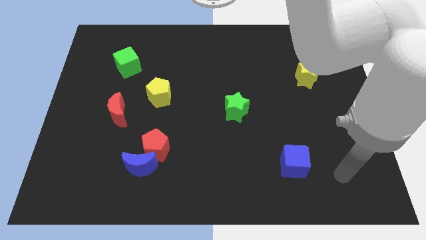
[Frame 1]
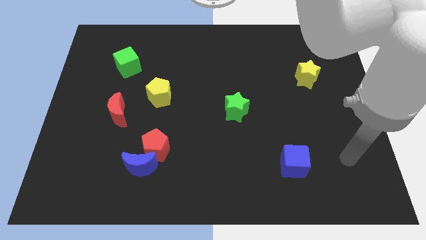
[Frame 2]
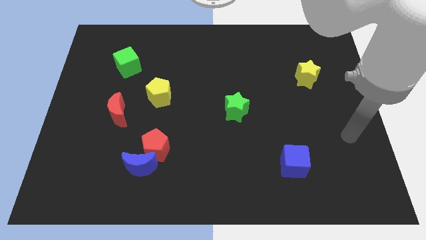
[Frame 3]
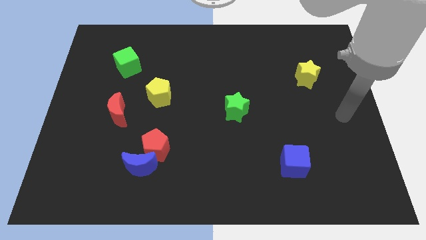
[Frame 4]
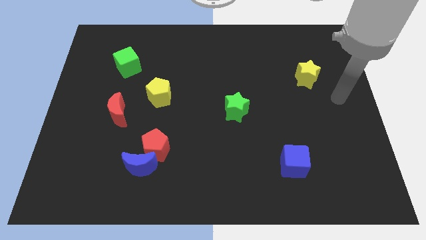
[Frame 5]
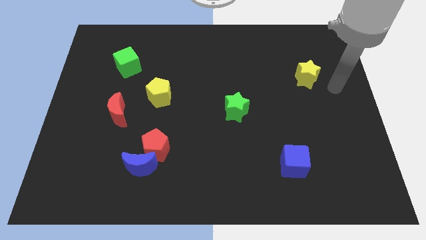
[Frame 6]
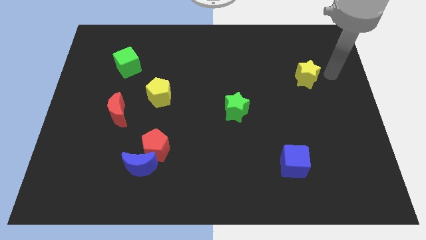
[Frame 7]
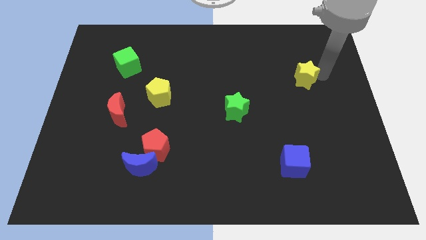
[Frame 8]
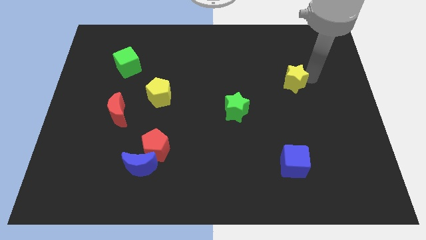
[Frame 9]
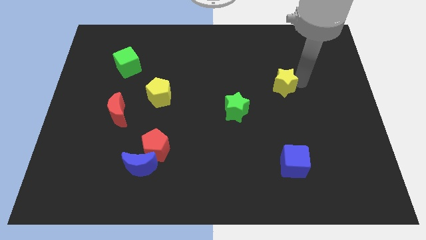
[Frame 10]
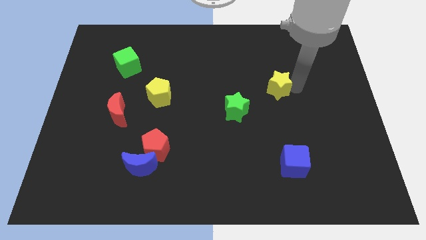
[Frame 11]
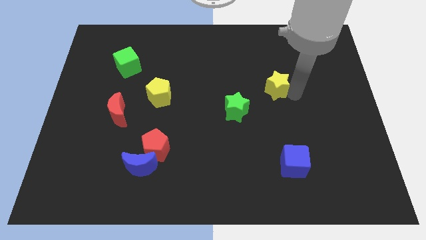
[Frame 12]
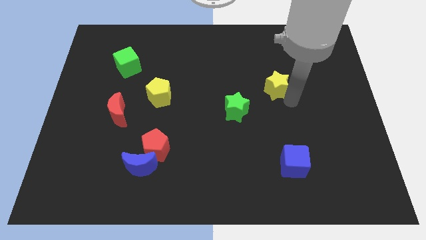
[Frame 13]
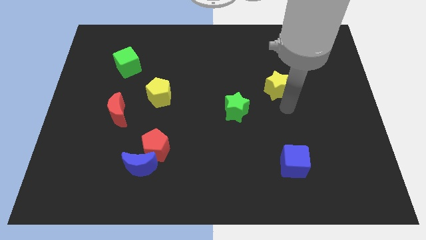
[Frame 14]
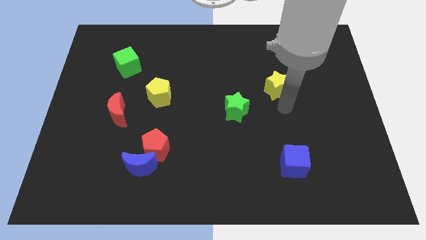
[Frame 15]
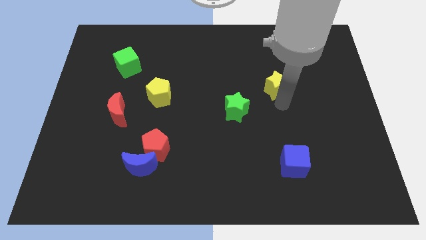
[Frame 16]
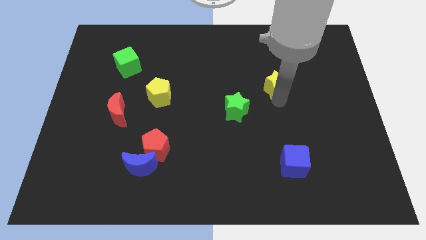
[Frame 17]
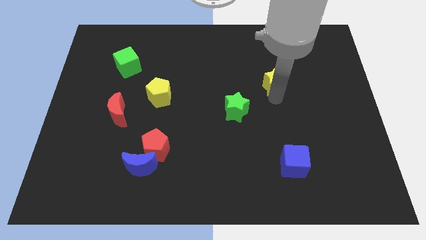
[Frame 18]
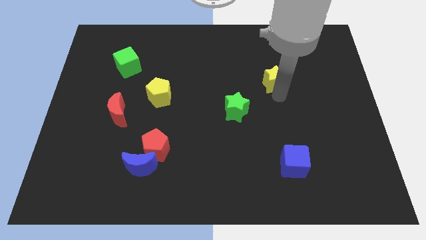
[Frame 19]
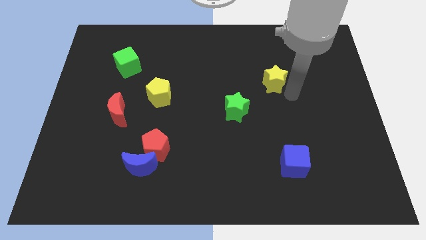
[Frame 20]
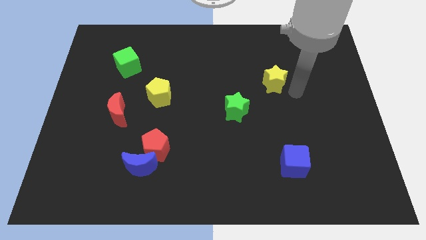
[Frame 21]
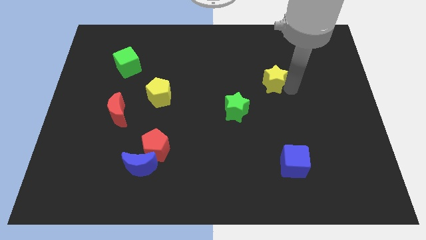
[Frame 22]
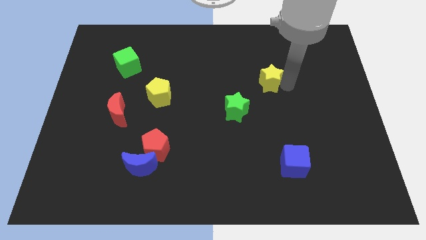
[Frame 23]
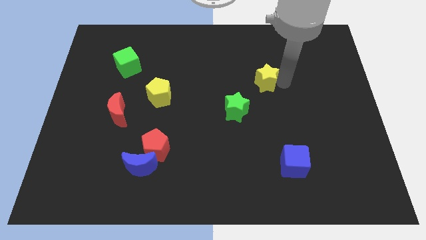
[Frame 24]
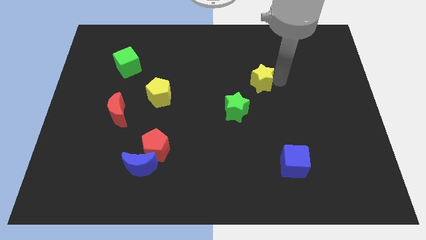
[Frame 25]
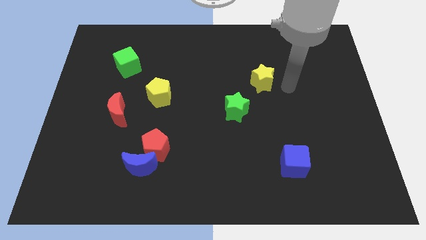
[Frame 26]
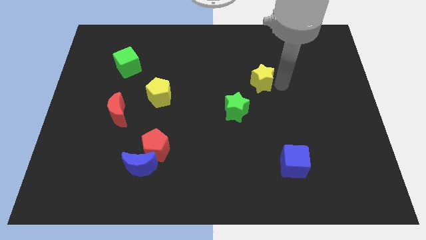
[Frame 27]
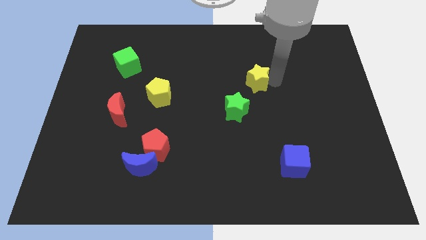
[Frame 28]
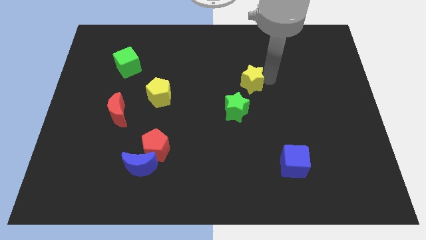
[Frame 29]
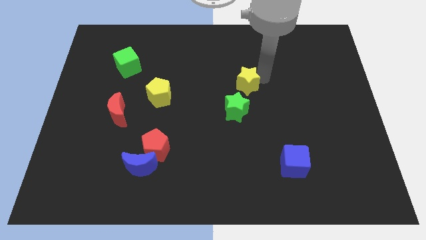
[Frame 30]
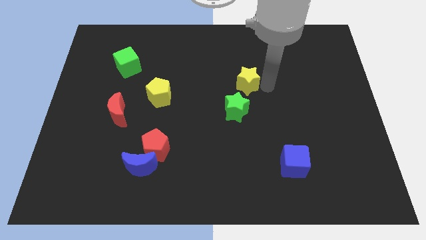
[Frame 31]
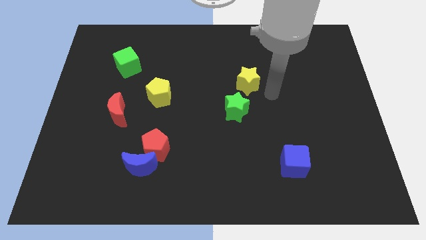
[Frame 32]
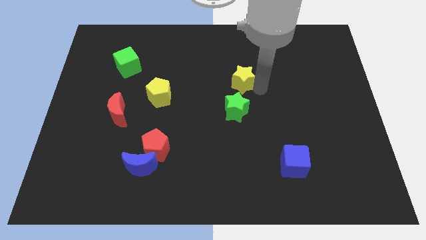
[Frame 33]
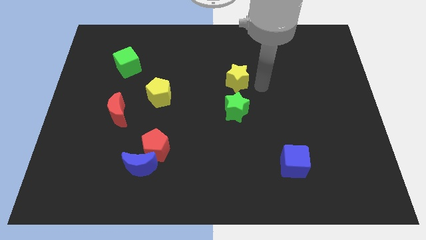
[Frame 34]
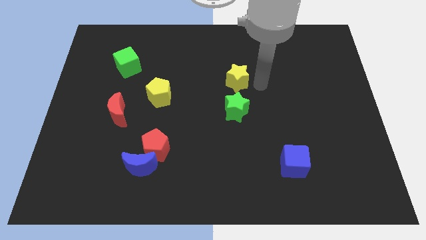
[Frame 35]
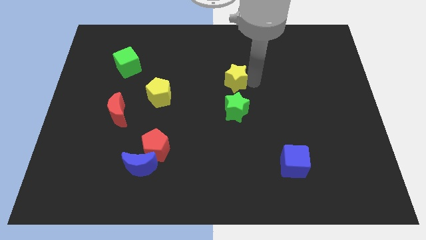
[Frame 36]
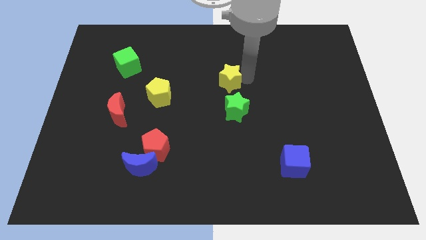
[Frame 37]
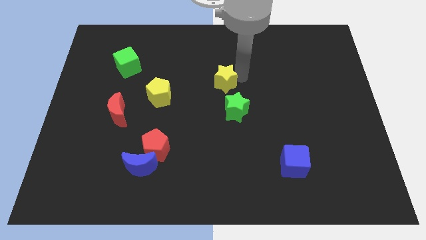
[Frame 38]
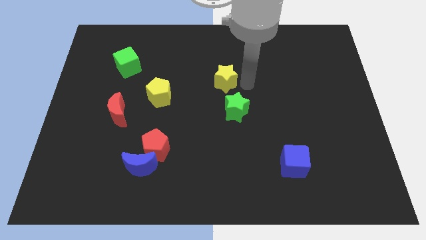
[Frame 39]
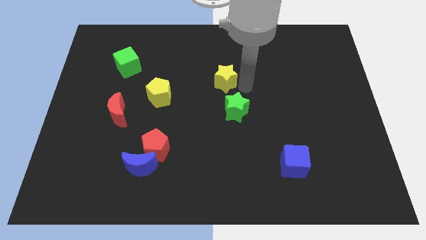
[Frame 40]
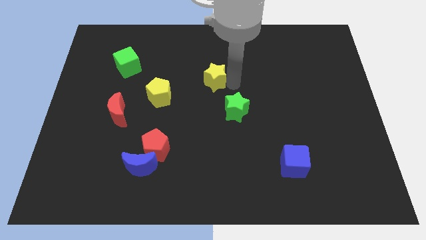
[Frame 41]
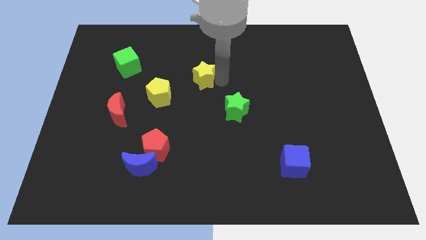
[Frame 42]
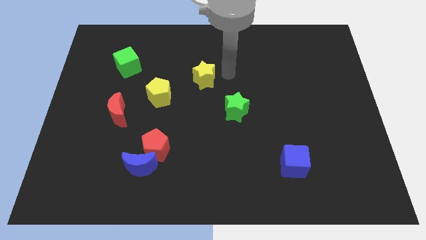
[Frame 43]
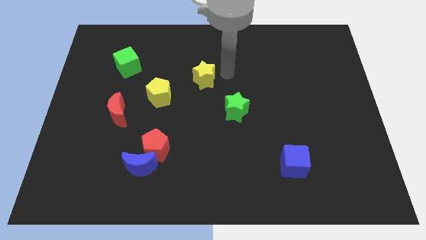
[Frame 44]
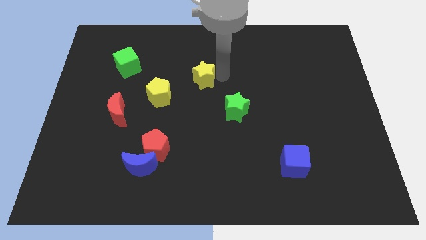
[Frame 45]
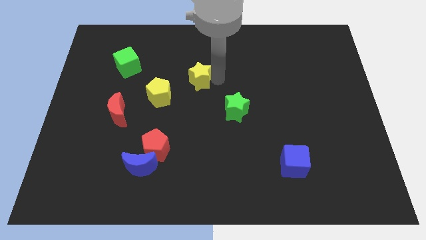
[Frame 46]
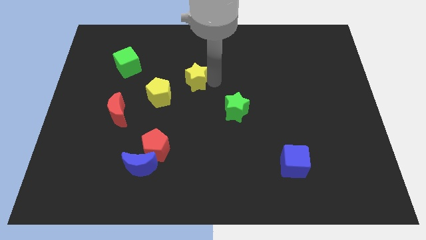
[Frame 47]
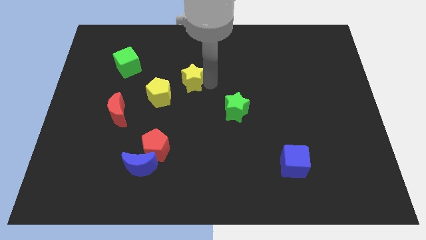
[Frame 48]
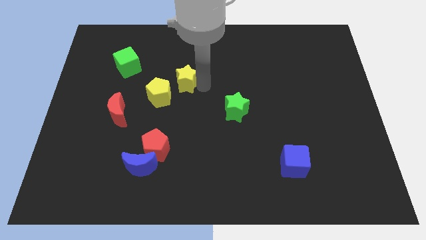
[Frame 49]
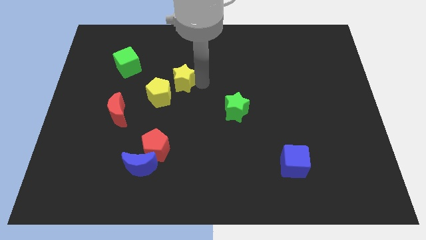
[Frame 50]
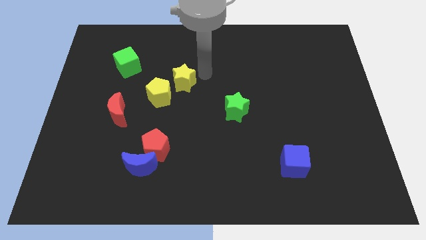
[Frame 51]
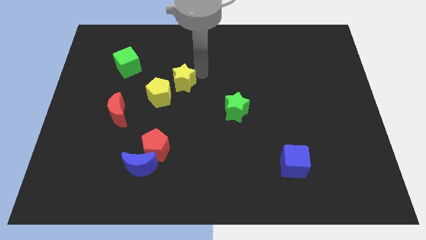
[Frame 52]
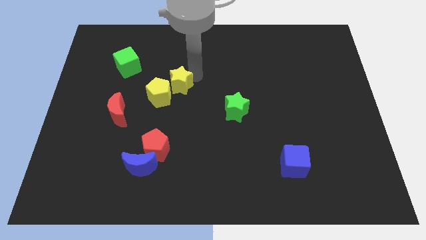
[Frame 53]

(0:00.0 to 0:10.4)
move the yellow star close to the yellow pentagon

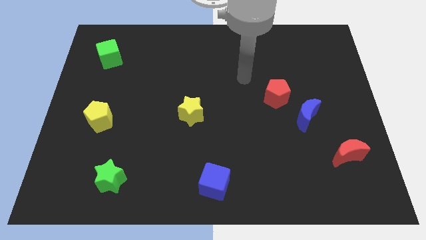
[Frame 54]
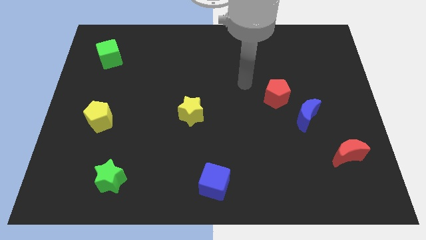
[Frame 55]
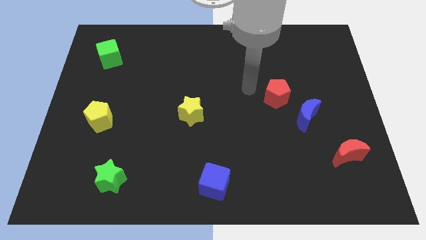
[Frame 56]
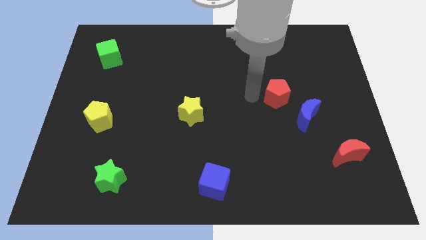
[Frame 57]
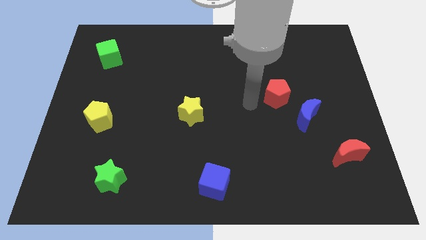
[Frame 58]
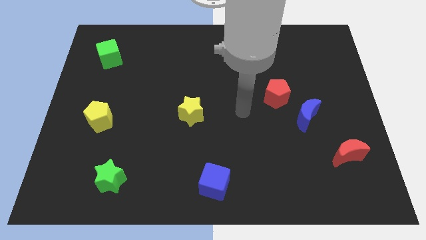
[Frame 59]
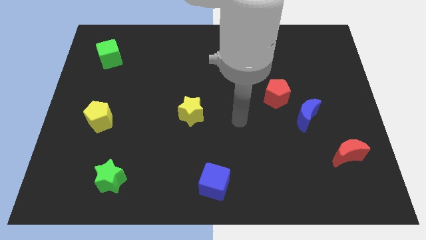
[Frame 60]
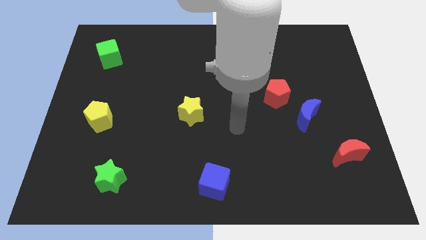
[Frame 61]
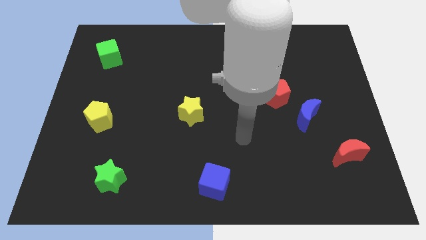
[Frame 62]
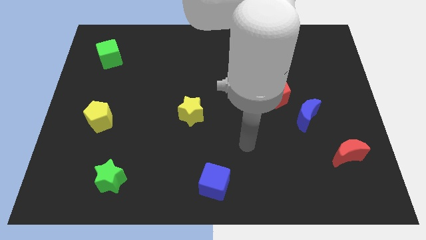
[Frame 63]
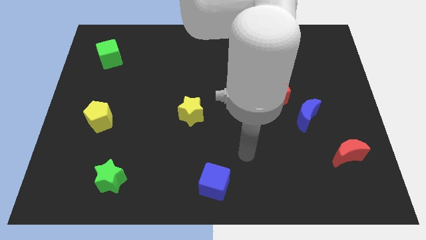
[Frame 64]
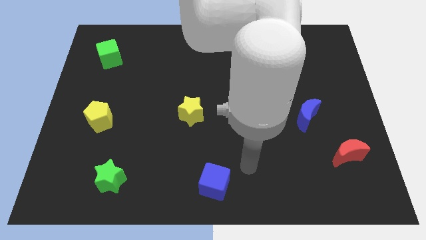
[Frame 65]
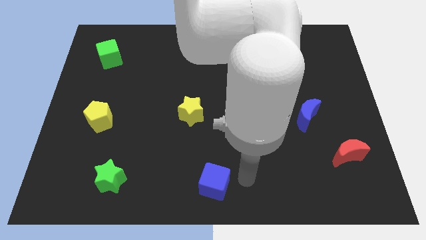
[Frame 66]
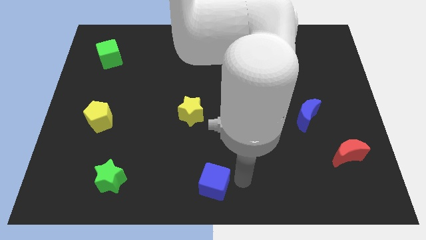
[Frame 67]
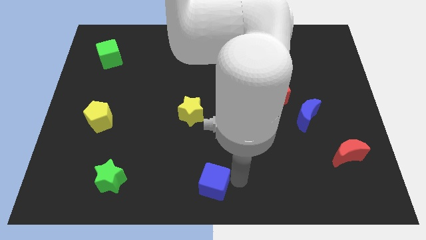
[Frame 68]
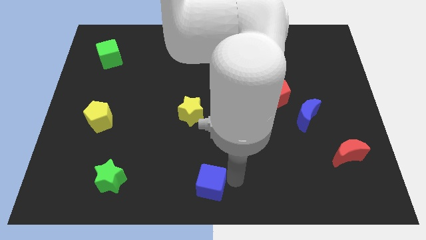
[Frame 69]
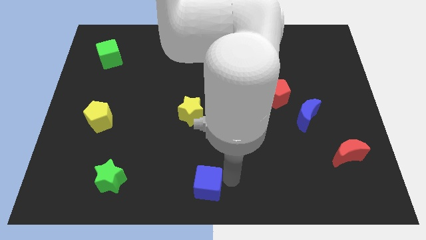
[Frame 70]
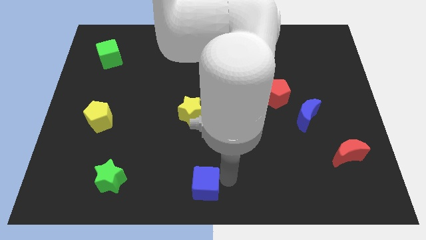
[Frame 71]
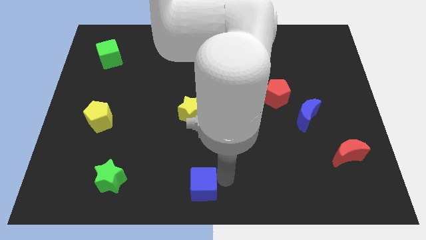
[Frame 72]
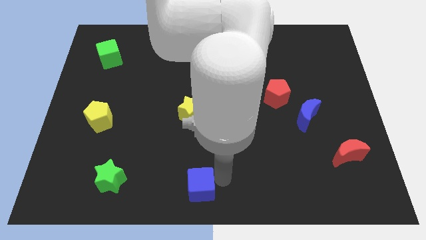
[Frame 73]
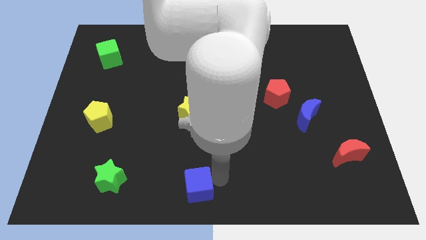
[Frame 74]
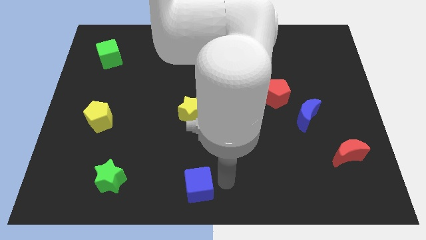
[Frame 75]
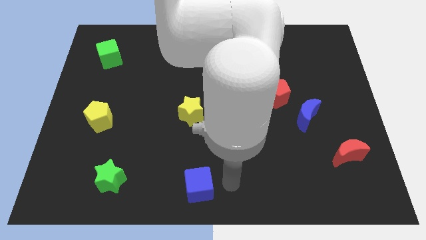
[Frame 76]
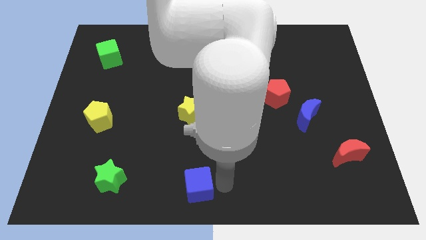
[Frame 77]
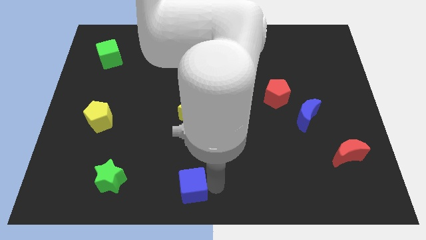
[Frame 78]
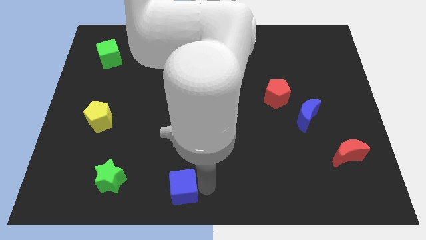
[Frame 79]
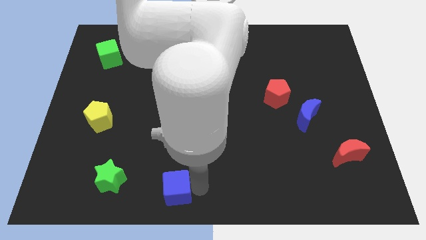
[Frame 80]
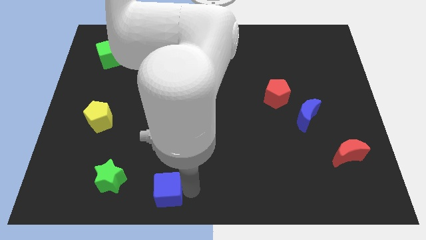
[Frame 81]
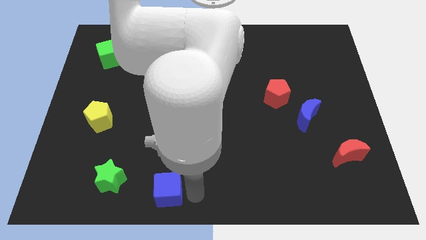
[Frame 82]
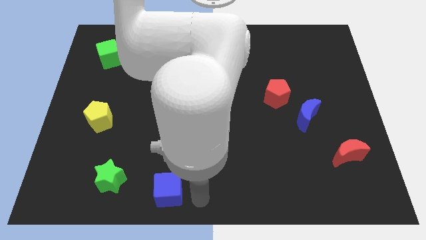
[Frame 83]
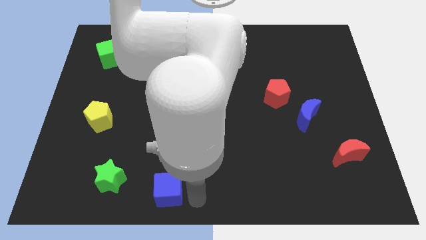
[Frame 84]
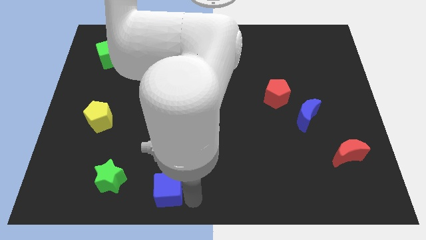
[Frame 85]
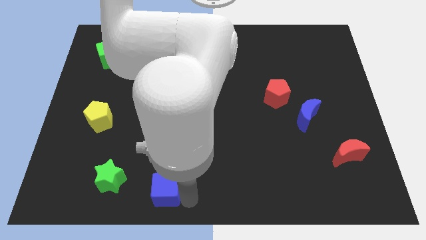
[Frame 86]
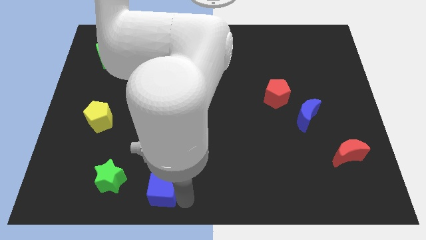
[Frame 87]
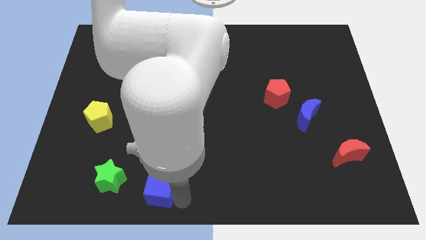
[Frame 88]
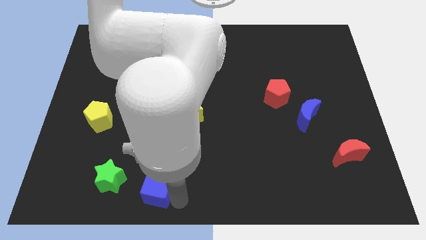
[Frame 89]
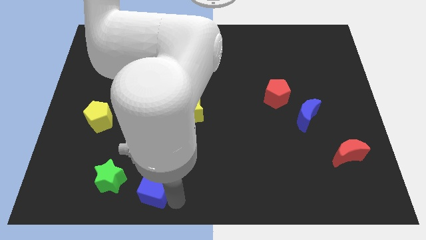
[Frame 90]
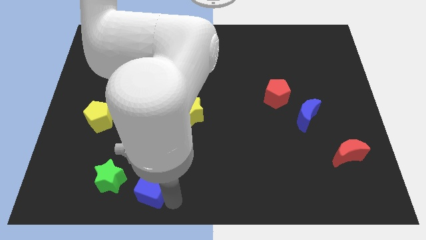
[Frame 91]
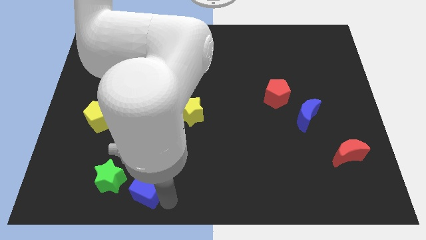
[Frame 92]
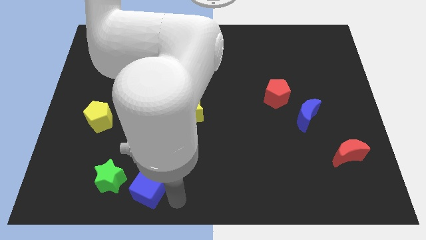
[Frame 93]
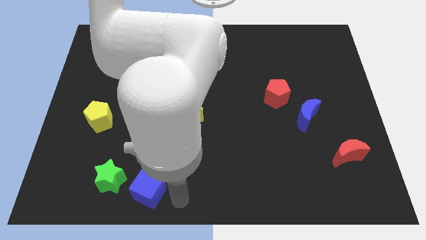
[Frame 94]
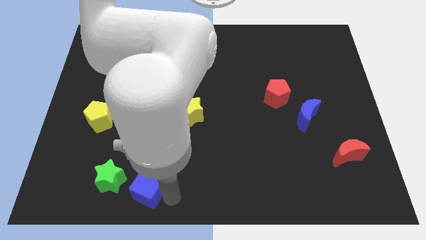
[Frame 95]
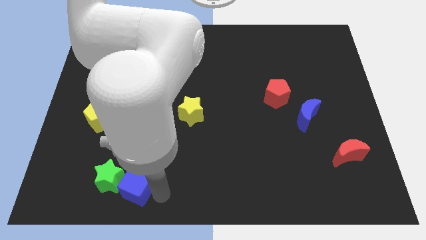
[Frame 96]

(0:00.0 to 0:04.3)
push the blue cube next to the green star
